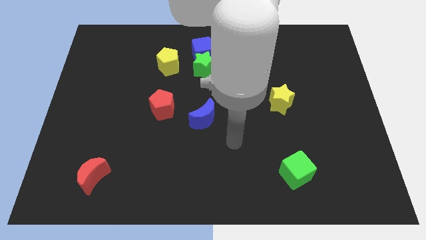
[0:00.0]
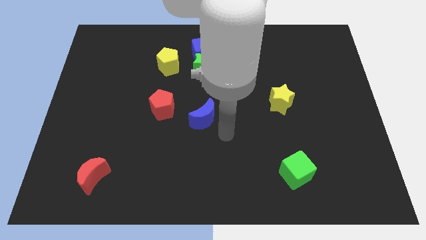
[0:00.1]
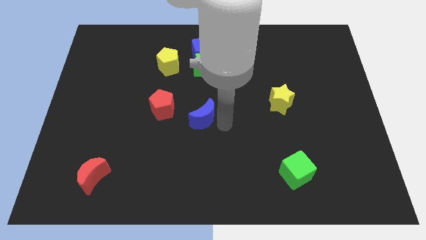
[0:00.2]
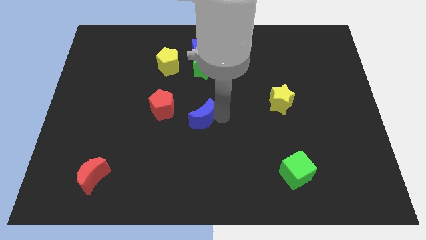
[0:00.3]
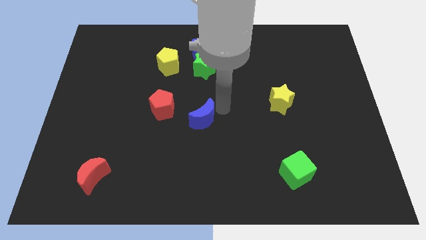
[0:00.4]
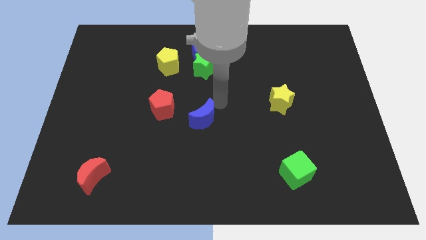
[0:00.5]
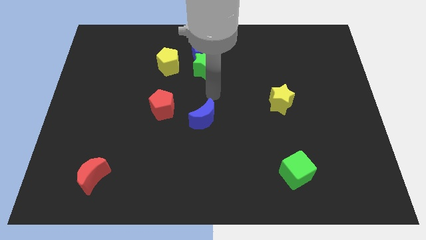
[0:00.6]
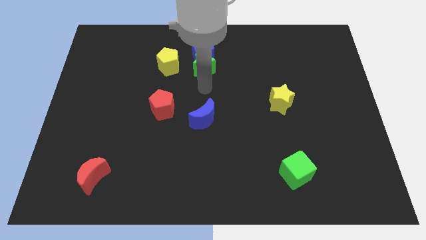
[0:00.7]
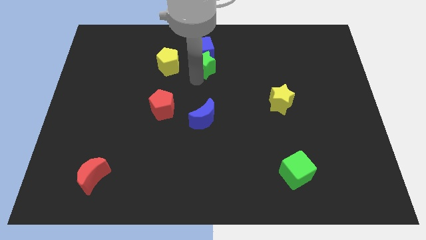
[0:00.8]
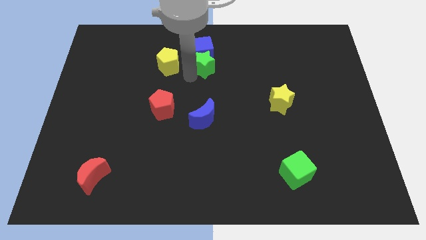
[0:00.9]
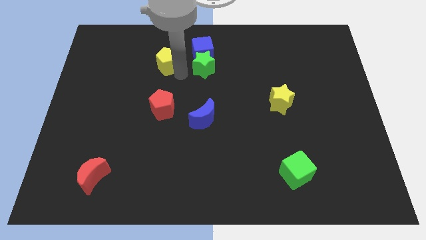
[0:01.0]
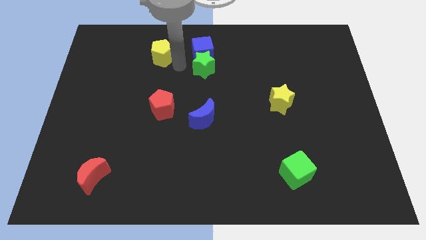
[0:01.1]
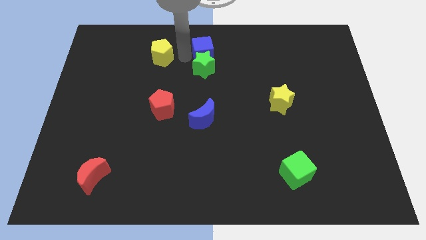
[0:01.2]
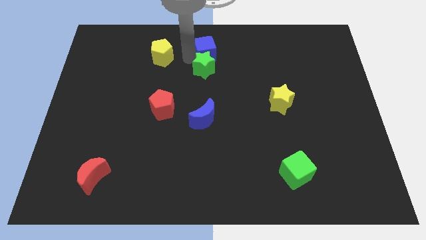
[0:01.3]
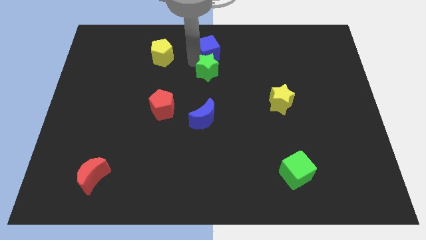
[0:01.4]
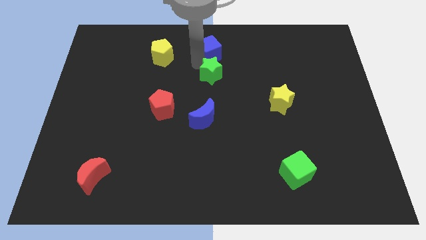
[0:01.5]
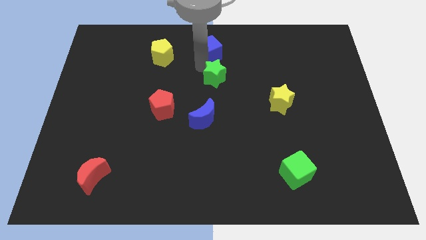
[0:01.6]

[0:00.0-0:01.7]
move the green star away from the blue cube and yellow pentagon

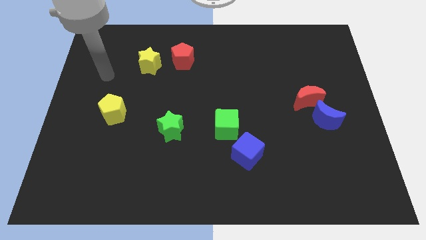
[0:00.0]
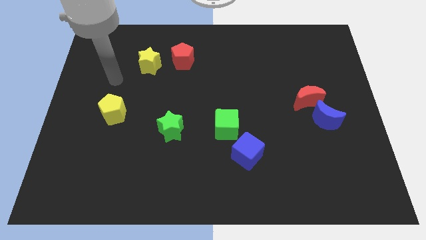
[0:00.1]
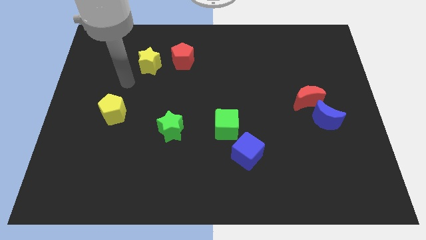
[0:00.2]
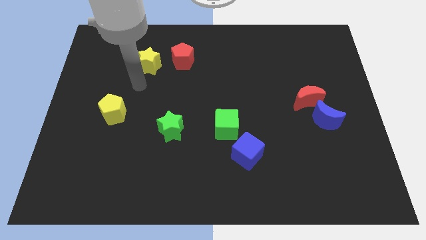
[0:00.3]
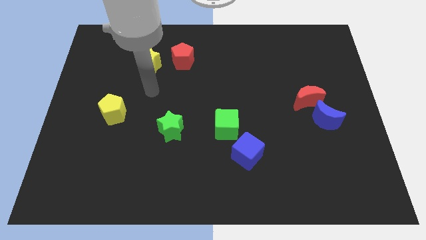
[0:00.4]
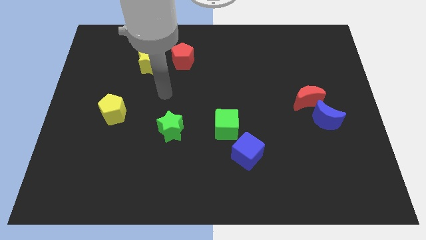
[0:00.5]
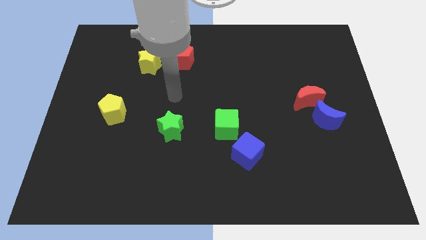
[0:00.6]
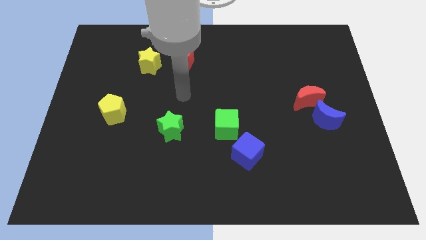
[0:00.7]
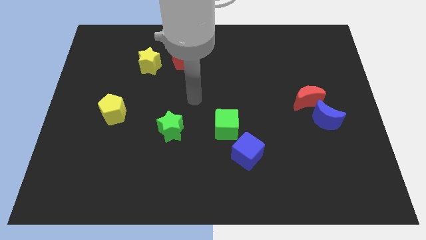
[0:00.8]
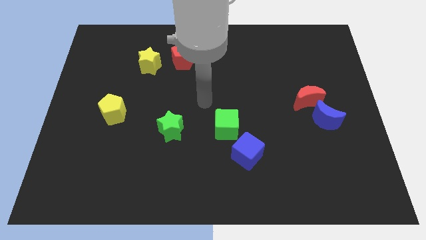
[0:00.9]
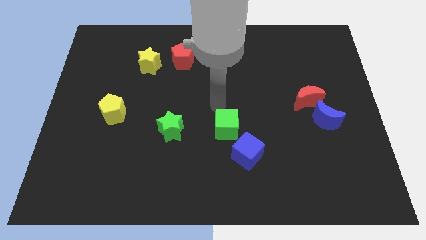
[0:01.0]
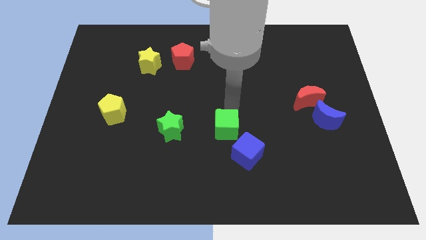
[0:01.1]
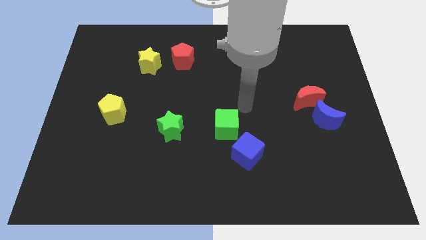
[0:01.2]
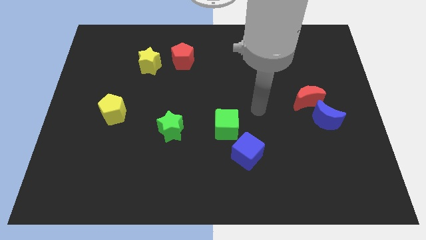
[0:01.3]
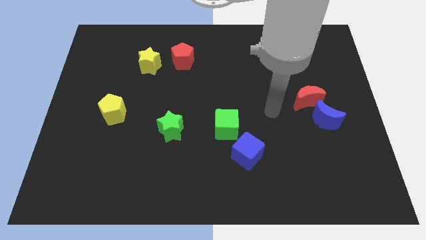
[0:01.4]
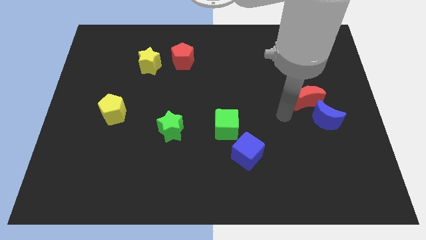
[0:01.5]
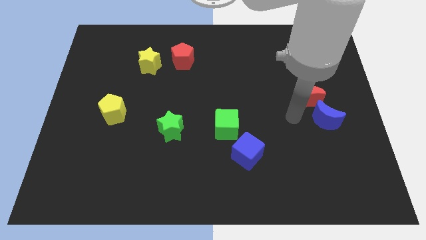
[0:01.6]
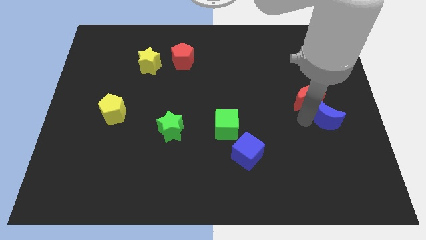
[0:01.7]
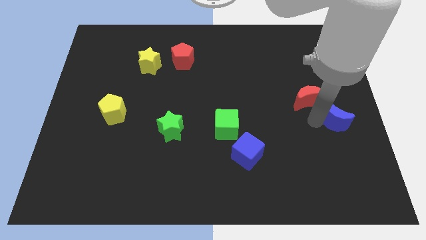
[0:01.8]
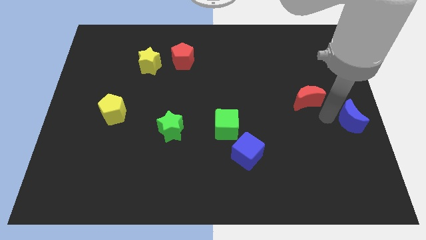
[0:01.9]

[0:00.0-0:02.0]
pull the red moon apart from the blue moon

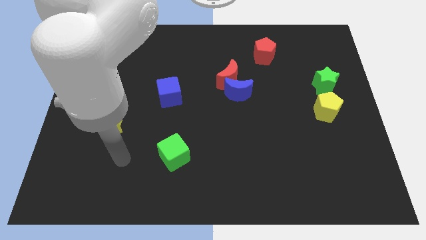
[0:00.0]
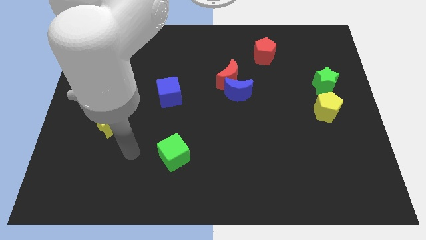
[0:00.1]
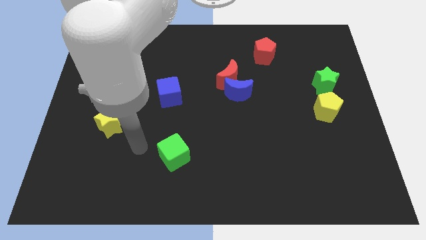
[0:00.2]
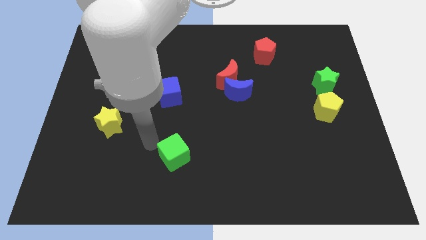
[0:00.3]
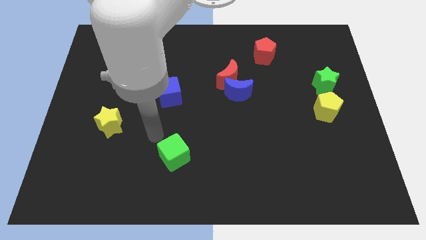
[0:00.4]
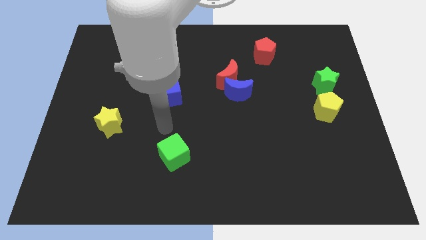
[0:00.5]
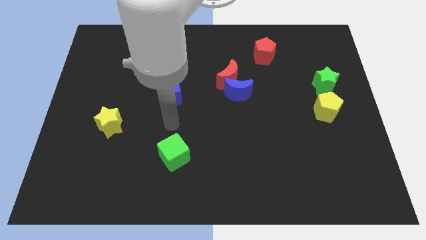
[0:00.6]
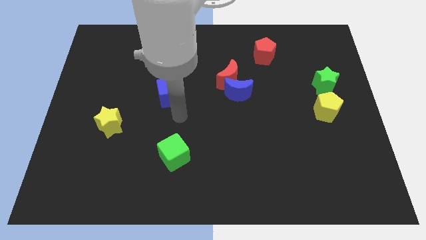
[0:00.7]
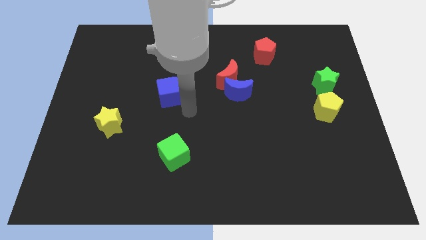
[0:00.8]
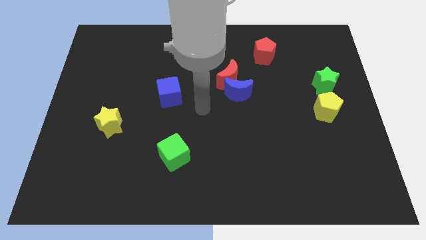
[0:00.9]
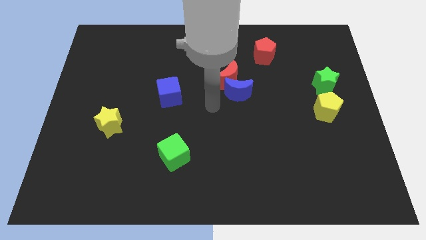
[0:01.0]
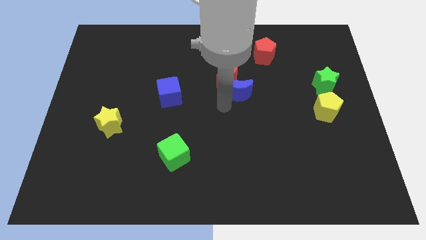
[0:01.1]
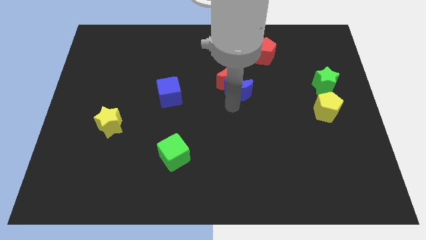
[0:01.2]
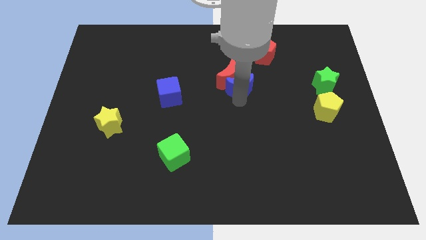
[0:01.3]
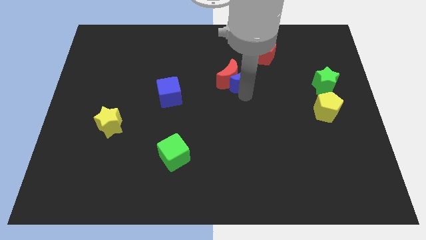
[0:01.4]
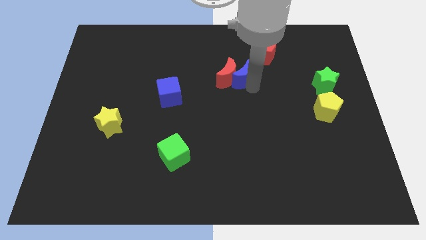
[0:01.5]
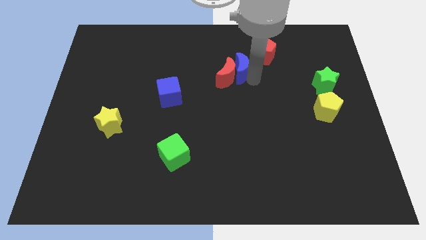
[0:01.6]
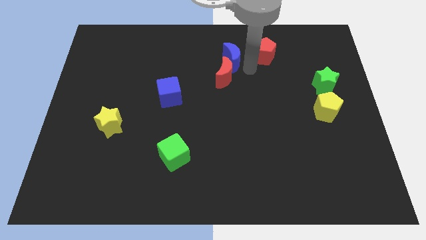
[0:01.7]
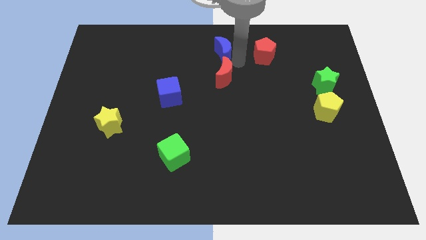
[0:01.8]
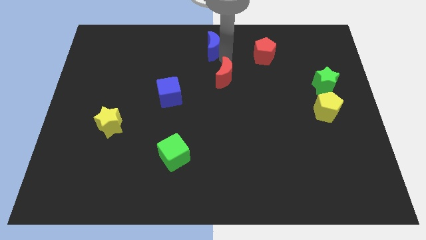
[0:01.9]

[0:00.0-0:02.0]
move the red moon away from the blue moon

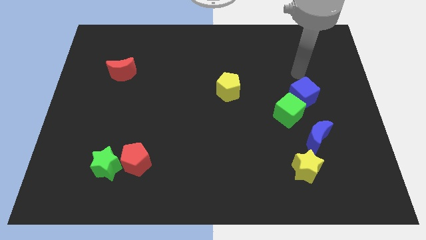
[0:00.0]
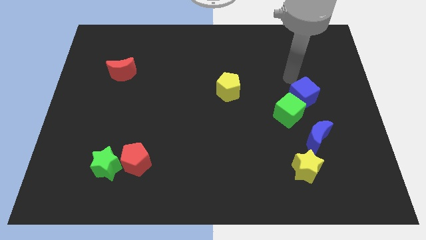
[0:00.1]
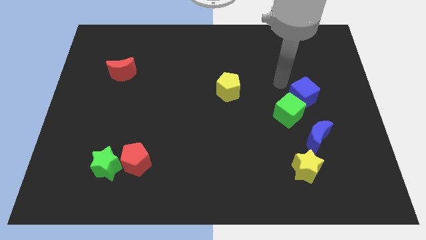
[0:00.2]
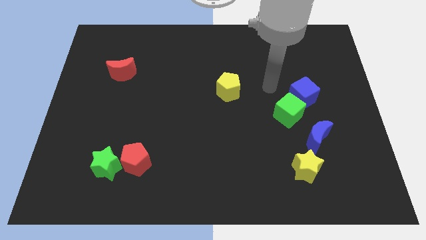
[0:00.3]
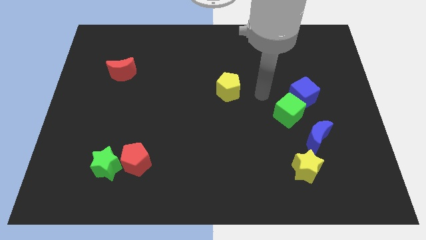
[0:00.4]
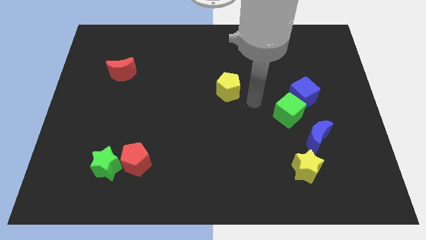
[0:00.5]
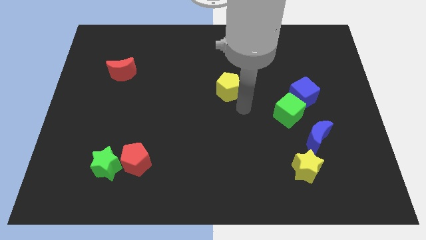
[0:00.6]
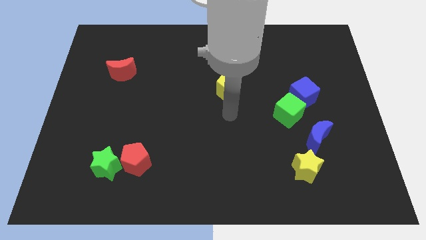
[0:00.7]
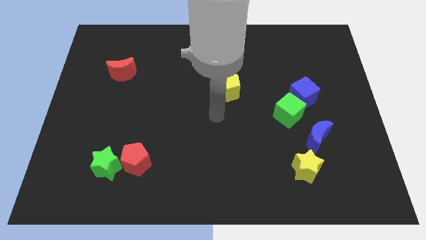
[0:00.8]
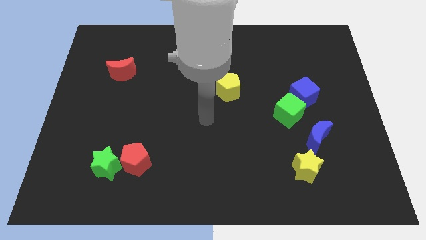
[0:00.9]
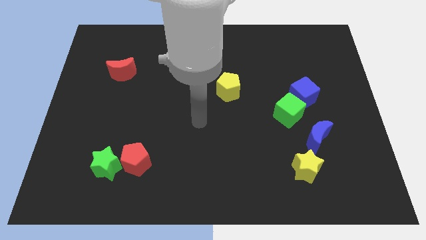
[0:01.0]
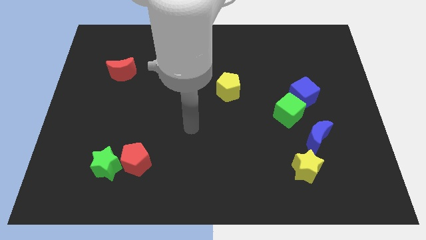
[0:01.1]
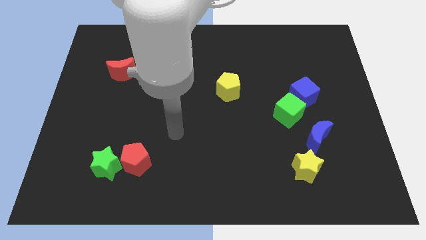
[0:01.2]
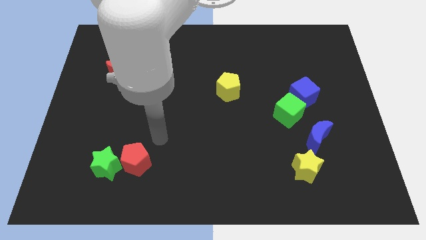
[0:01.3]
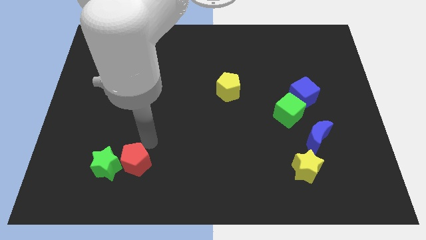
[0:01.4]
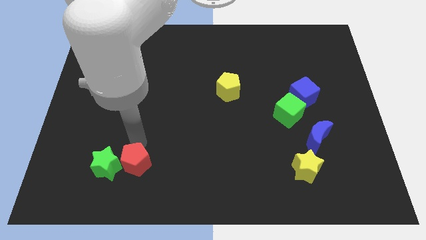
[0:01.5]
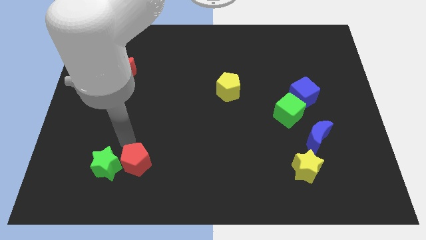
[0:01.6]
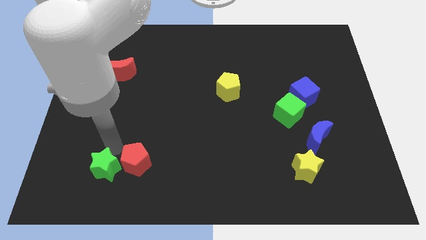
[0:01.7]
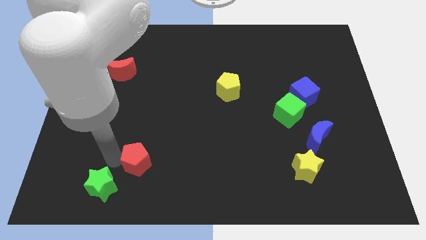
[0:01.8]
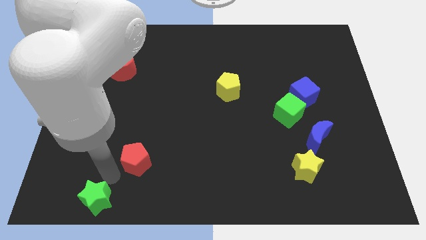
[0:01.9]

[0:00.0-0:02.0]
pull the red pentagon apart from the green star

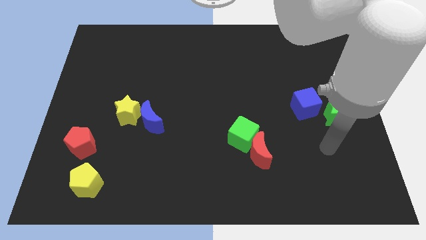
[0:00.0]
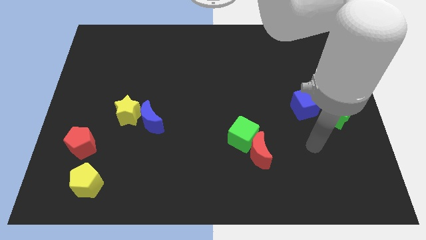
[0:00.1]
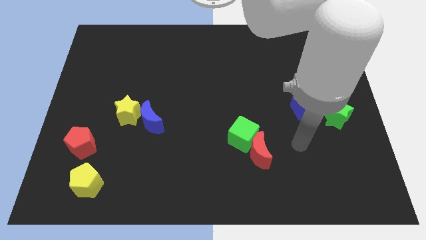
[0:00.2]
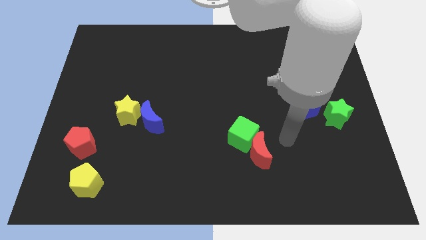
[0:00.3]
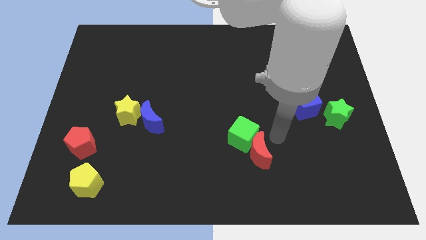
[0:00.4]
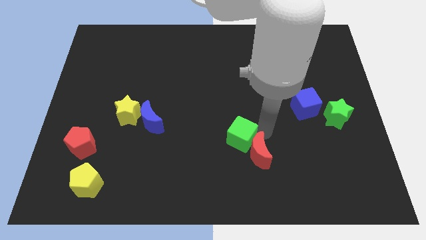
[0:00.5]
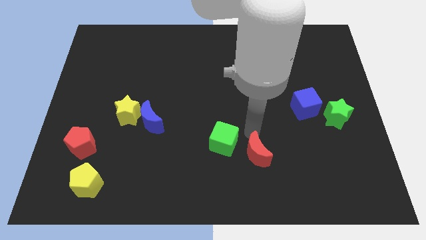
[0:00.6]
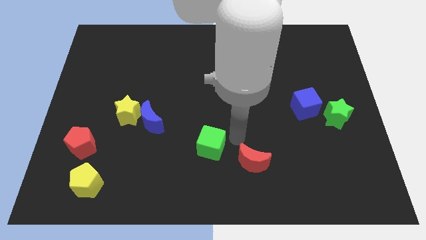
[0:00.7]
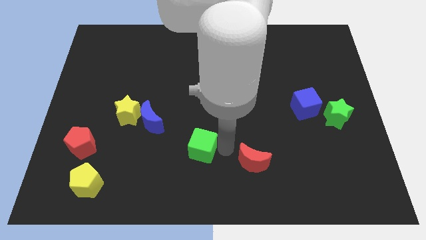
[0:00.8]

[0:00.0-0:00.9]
move the red moon away from the green cube

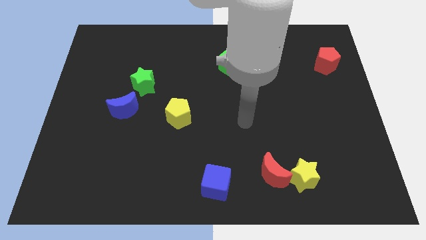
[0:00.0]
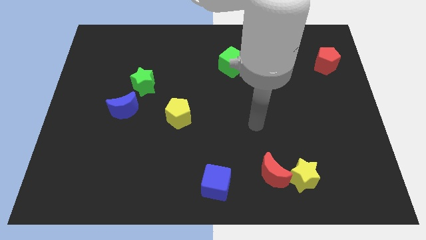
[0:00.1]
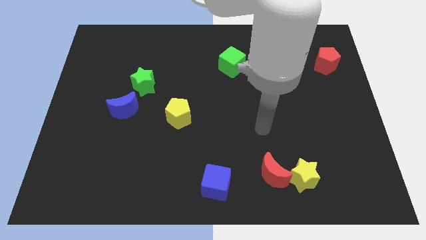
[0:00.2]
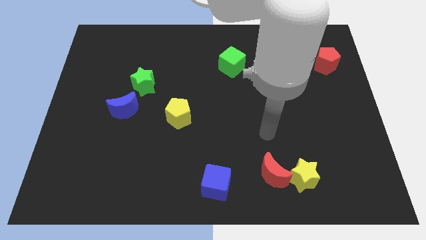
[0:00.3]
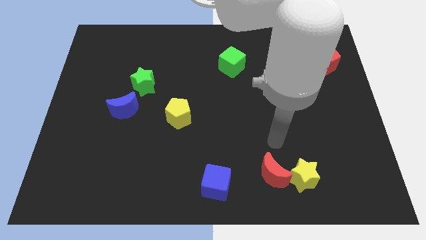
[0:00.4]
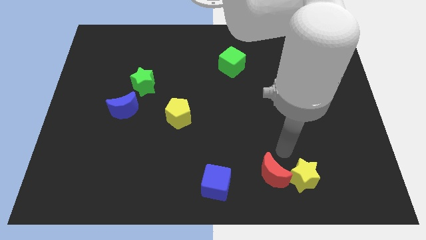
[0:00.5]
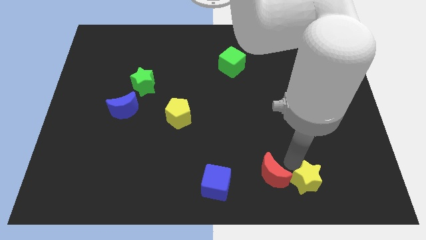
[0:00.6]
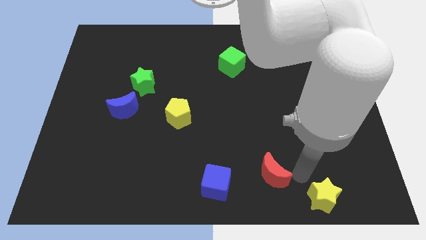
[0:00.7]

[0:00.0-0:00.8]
pull the red moon apart from the yellow star
